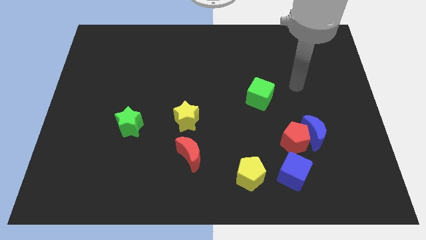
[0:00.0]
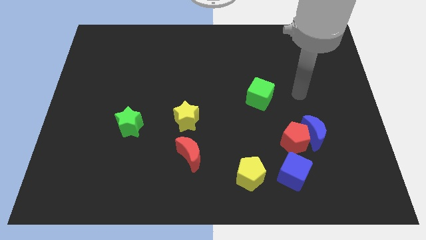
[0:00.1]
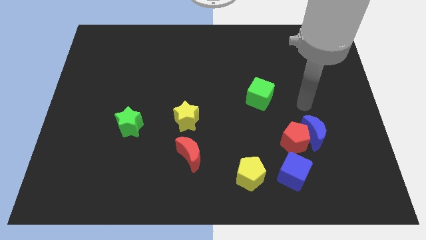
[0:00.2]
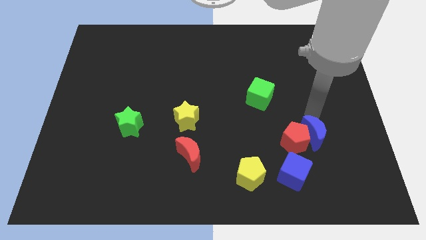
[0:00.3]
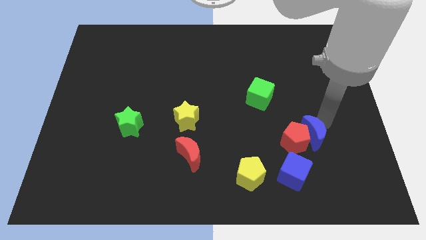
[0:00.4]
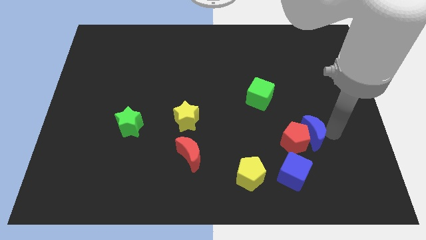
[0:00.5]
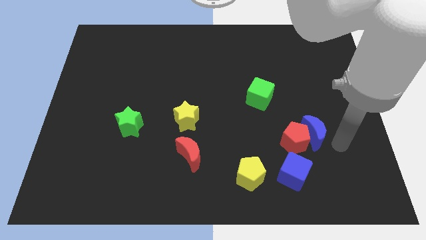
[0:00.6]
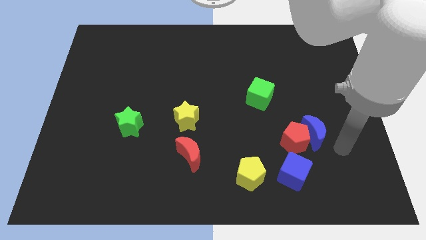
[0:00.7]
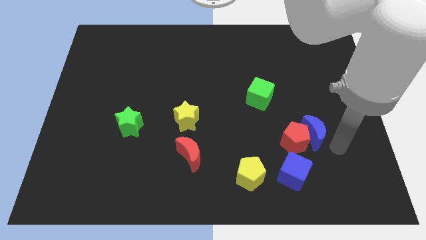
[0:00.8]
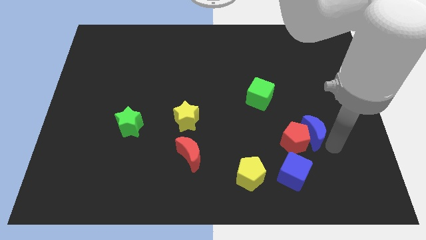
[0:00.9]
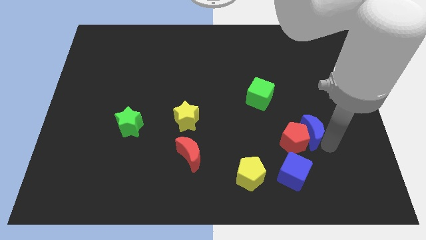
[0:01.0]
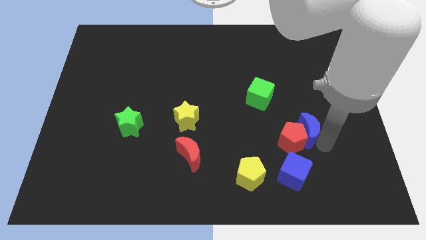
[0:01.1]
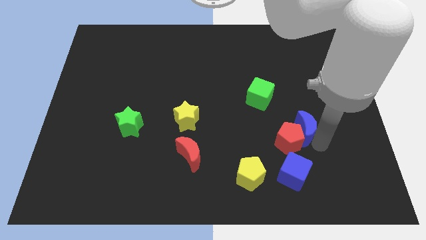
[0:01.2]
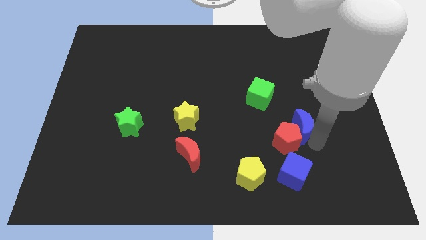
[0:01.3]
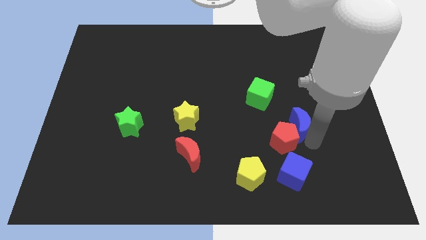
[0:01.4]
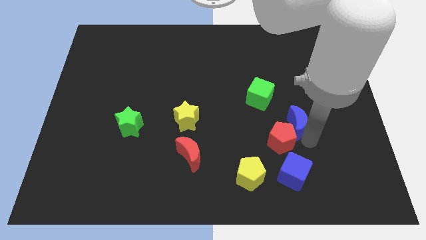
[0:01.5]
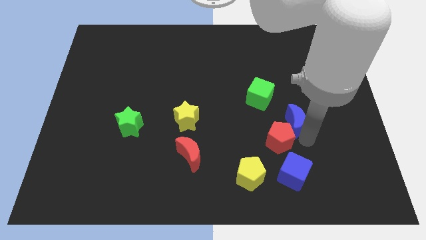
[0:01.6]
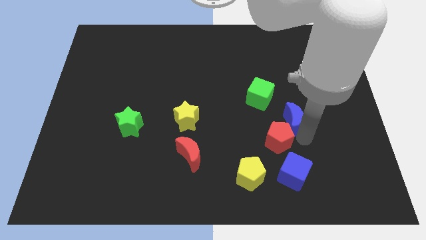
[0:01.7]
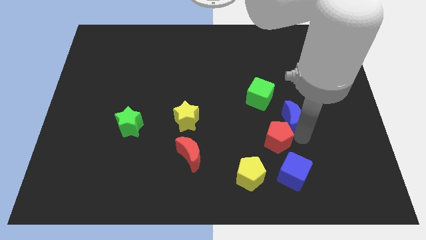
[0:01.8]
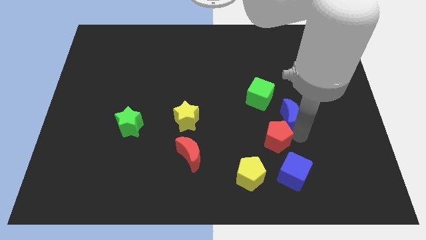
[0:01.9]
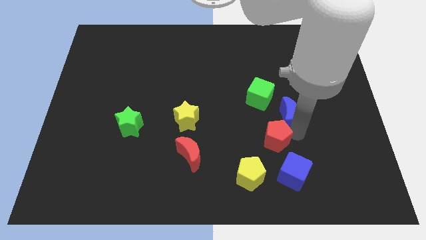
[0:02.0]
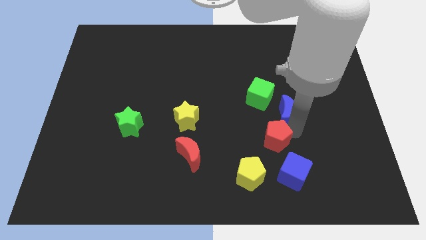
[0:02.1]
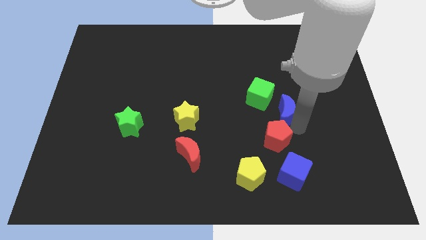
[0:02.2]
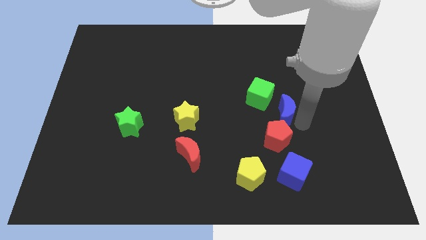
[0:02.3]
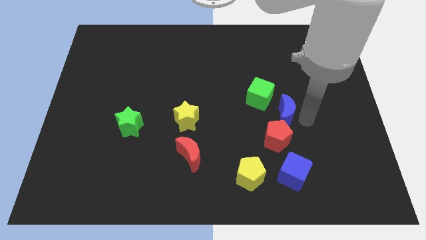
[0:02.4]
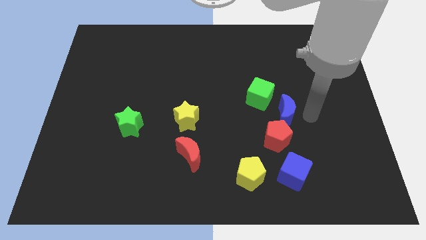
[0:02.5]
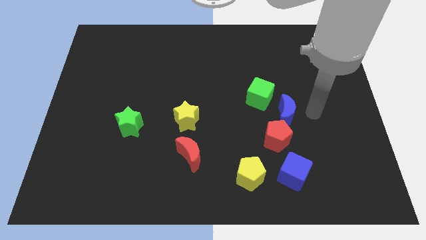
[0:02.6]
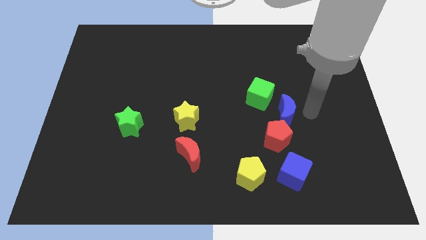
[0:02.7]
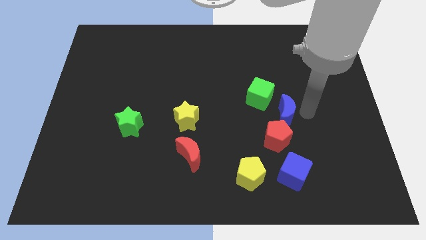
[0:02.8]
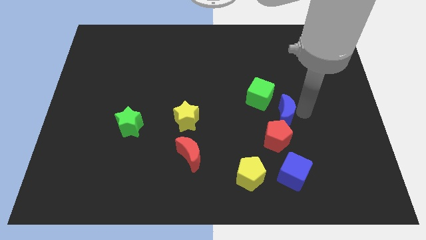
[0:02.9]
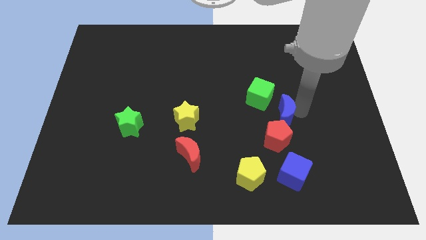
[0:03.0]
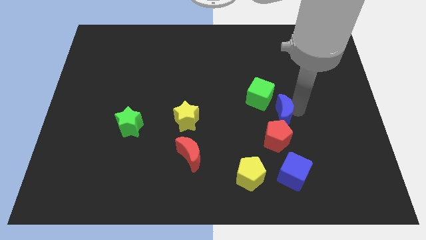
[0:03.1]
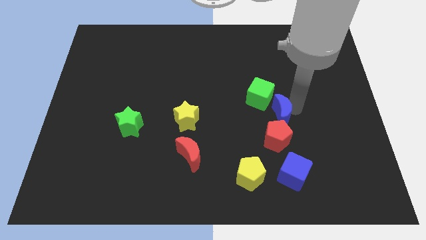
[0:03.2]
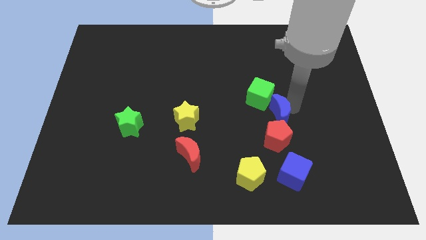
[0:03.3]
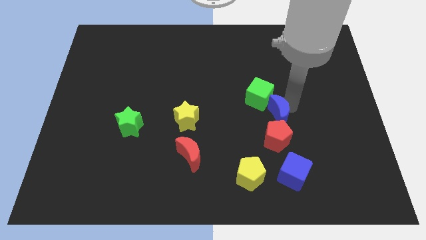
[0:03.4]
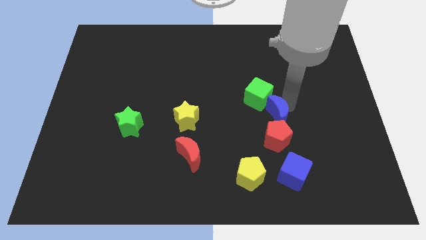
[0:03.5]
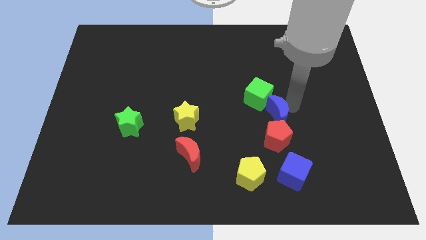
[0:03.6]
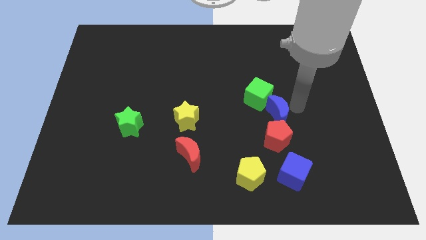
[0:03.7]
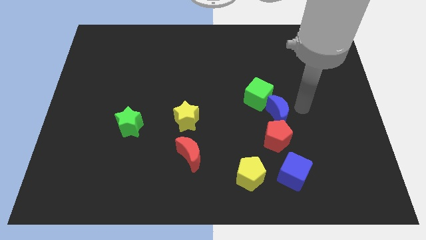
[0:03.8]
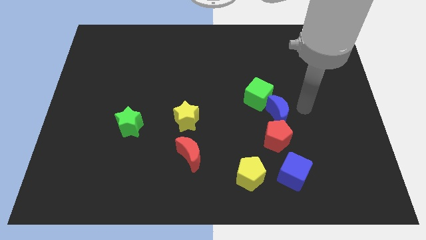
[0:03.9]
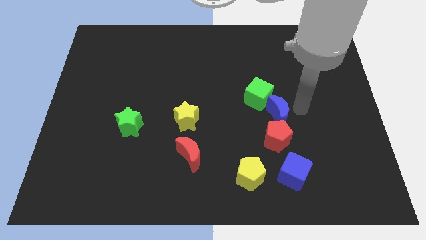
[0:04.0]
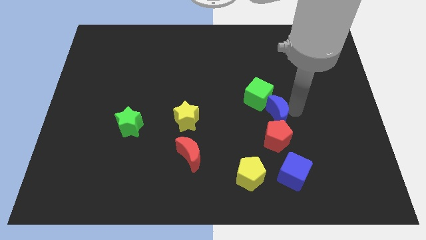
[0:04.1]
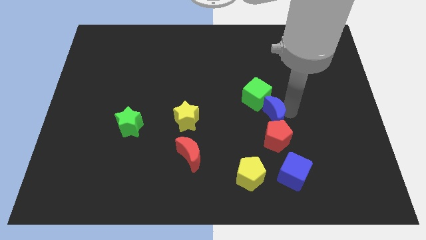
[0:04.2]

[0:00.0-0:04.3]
slide the blue moon to the left somewhat

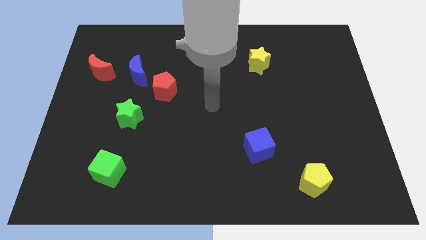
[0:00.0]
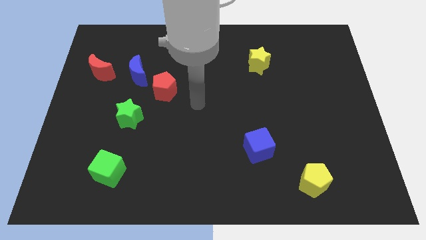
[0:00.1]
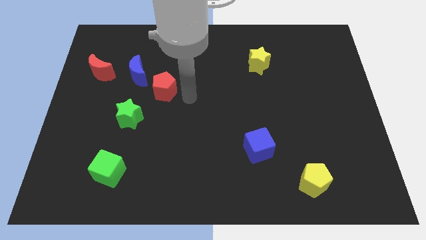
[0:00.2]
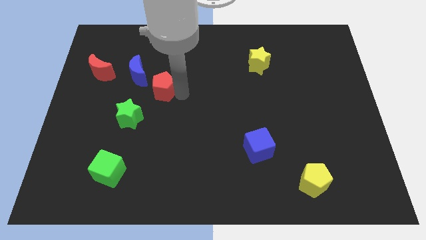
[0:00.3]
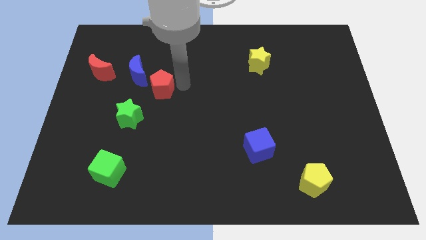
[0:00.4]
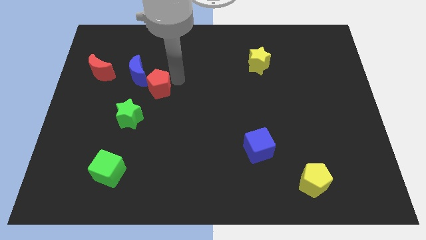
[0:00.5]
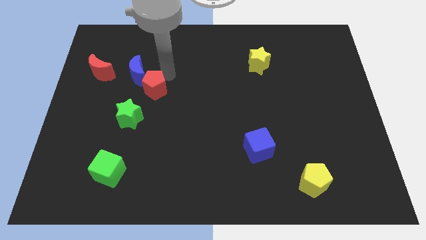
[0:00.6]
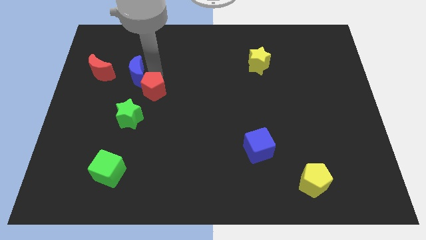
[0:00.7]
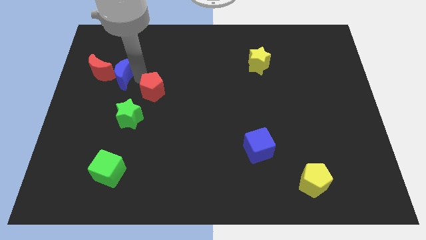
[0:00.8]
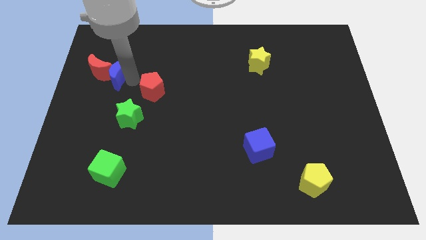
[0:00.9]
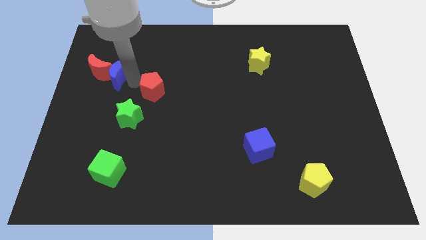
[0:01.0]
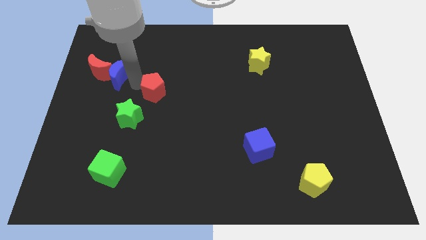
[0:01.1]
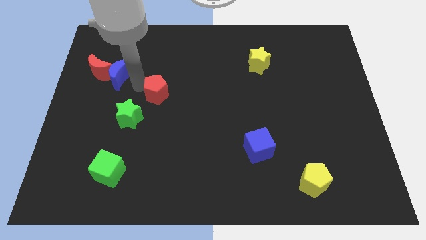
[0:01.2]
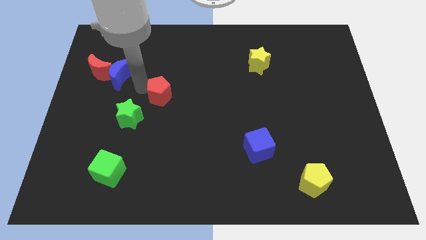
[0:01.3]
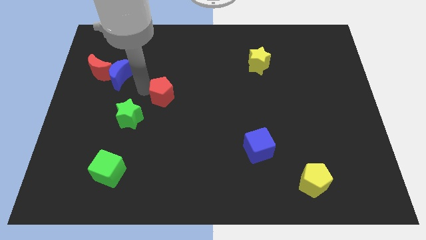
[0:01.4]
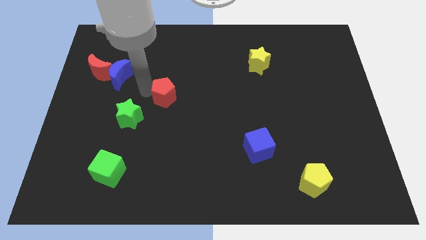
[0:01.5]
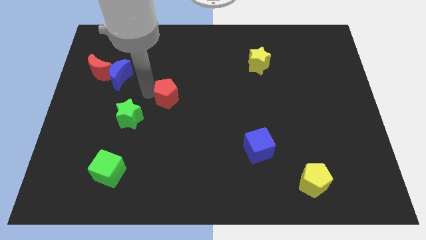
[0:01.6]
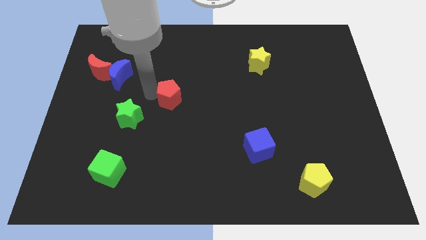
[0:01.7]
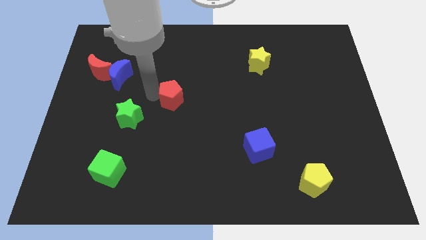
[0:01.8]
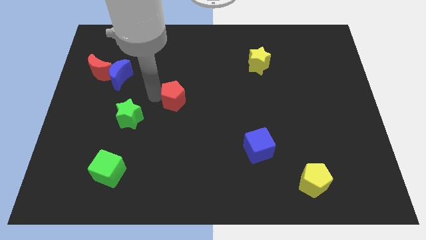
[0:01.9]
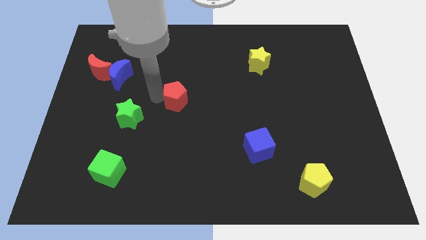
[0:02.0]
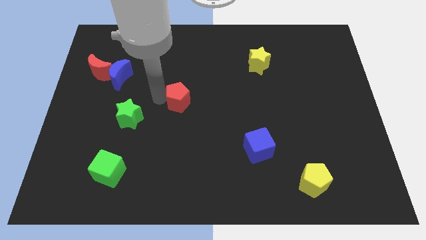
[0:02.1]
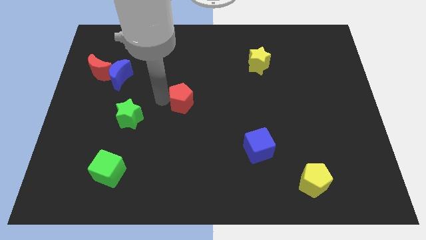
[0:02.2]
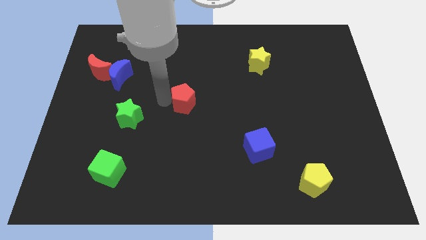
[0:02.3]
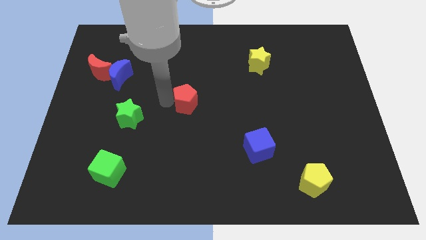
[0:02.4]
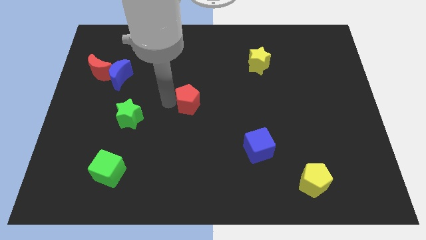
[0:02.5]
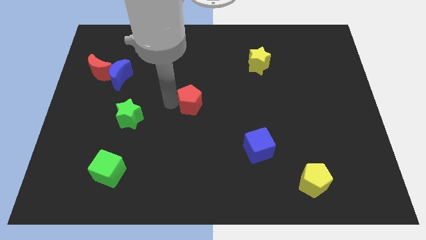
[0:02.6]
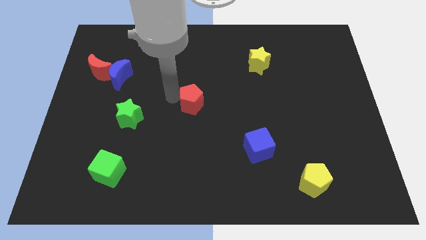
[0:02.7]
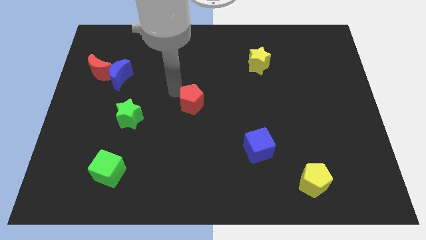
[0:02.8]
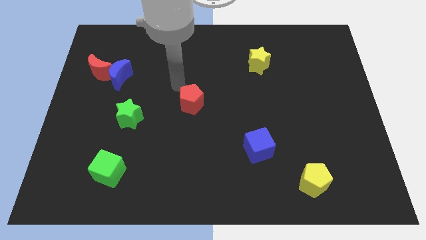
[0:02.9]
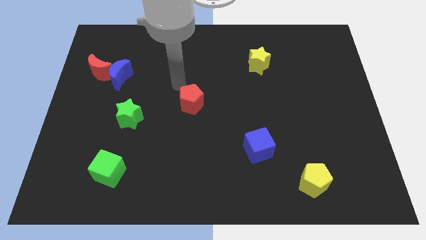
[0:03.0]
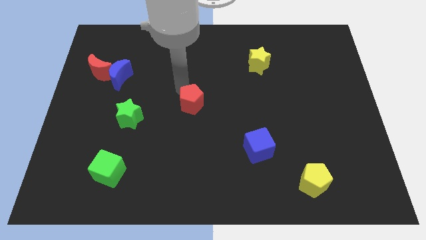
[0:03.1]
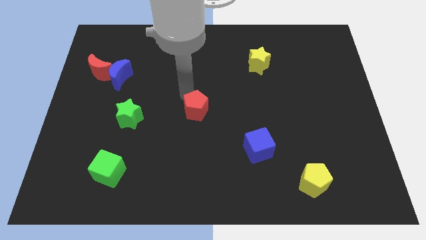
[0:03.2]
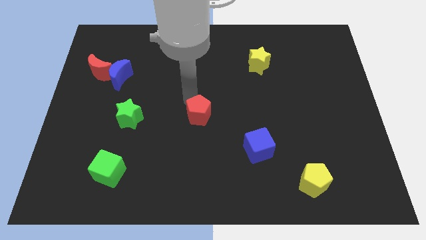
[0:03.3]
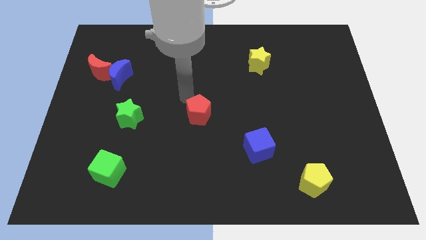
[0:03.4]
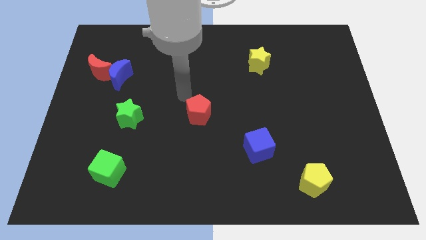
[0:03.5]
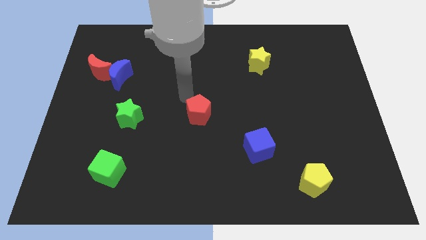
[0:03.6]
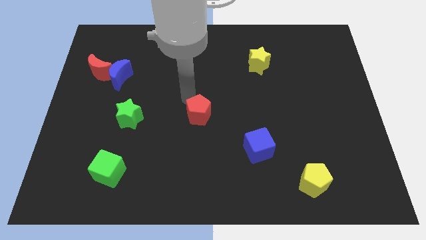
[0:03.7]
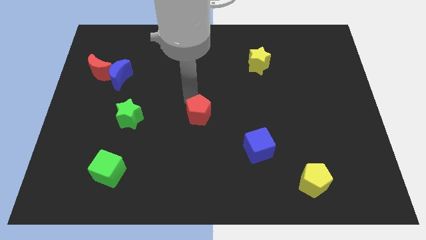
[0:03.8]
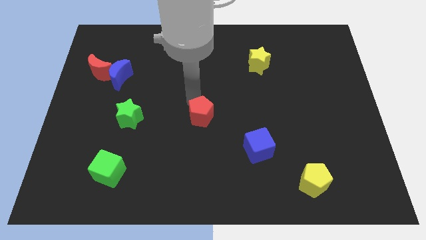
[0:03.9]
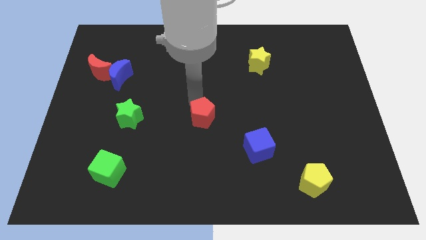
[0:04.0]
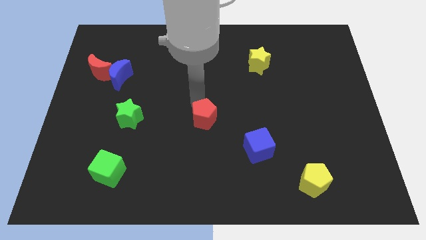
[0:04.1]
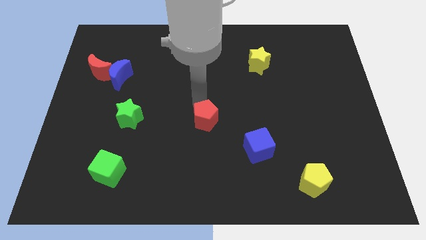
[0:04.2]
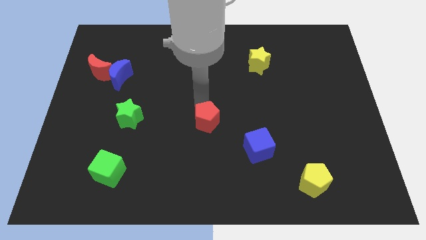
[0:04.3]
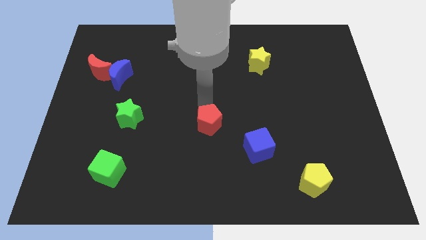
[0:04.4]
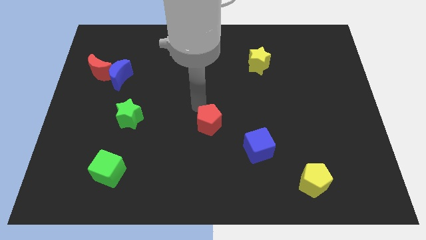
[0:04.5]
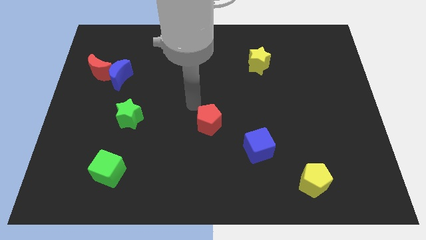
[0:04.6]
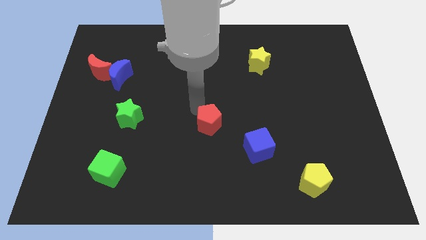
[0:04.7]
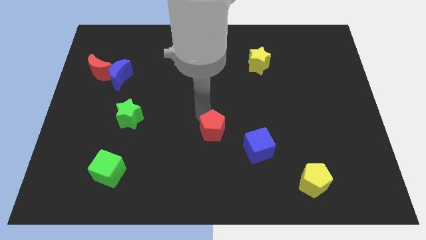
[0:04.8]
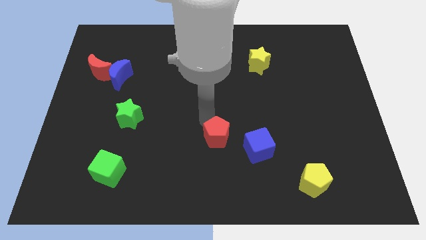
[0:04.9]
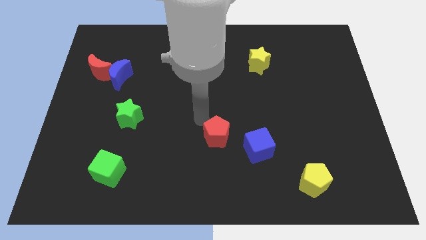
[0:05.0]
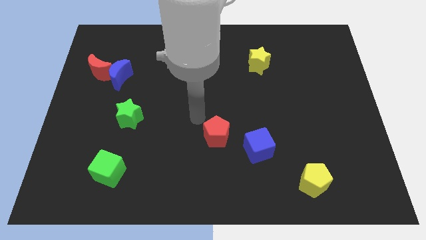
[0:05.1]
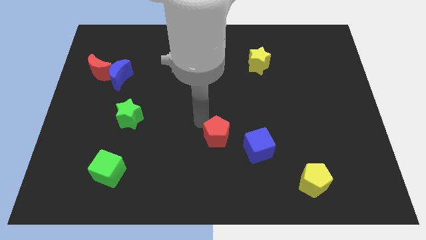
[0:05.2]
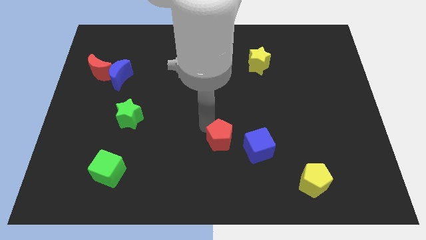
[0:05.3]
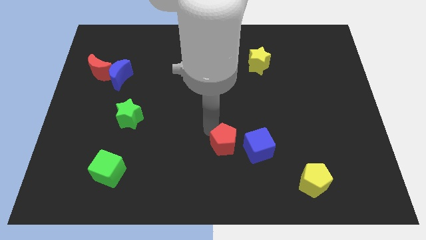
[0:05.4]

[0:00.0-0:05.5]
push the red pentagon diagonally downwards and right
